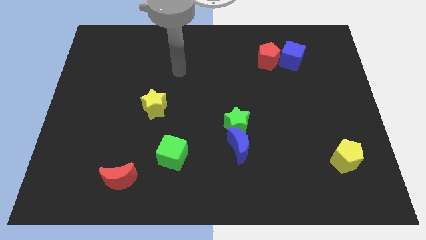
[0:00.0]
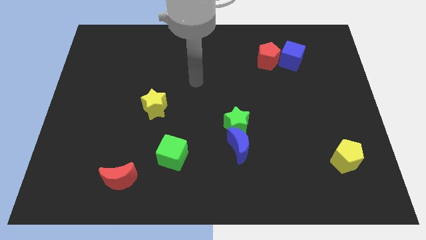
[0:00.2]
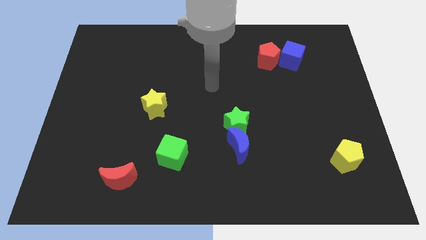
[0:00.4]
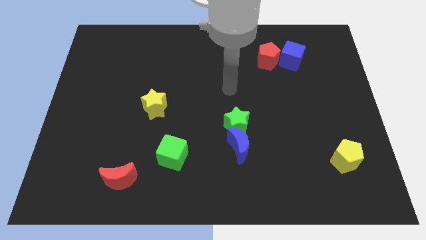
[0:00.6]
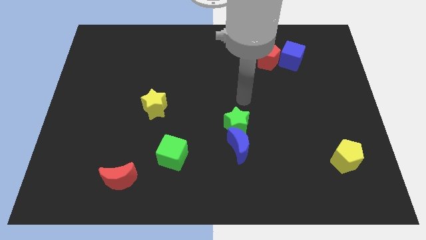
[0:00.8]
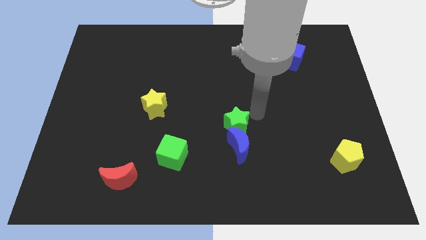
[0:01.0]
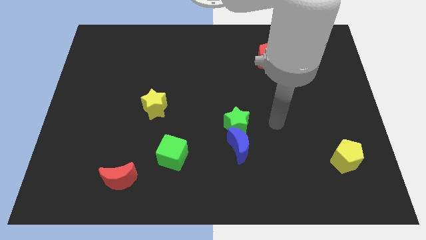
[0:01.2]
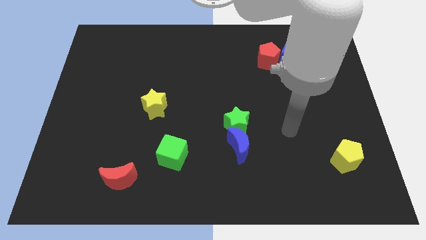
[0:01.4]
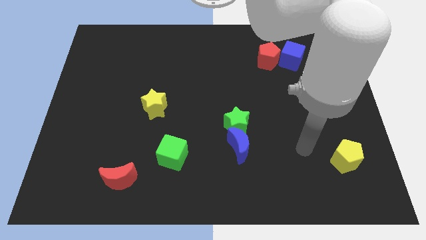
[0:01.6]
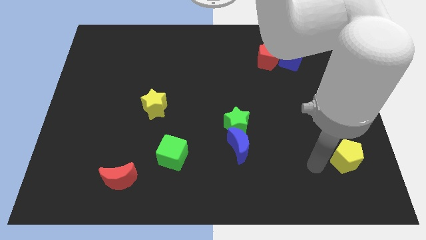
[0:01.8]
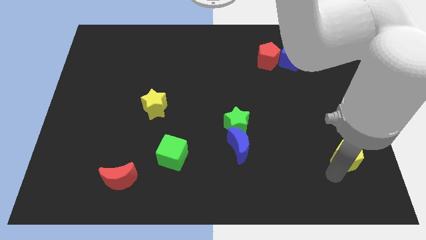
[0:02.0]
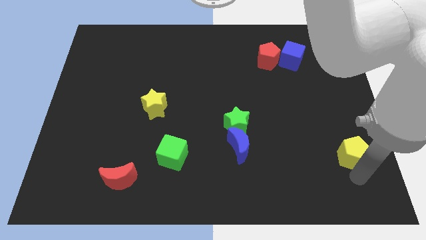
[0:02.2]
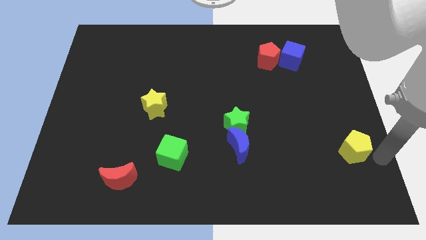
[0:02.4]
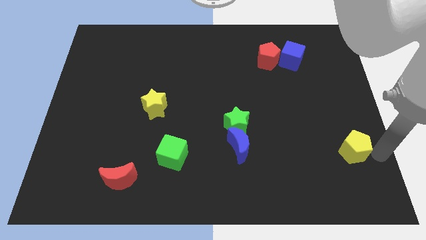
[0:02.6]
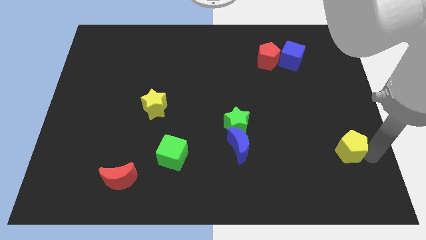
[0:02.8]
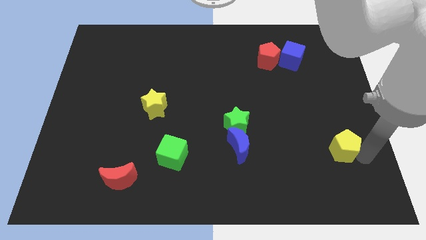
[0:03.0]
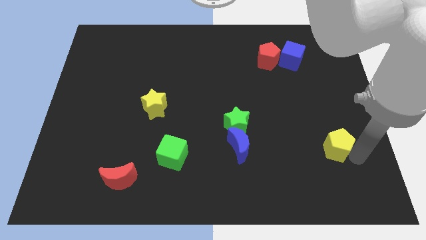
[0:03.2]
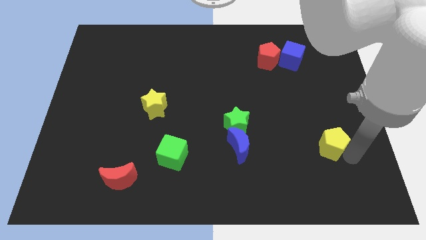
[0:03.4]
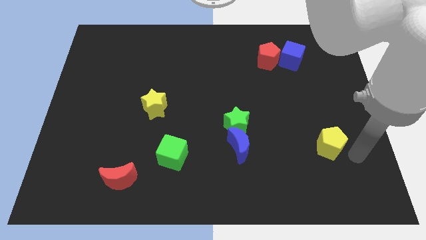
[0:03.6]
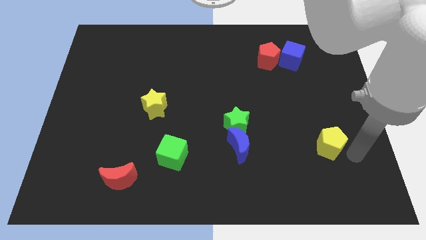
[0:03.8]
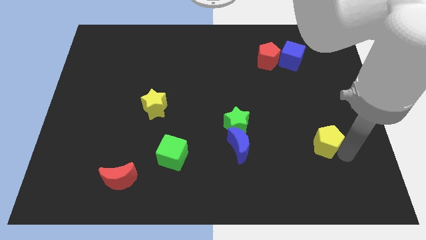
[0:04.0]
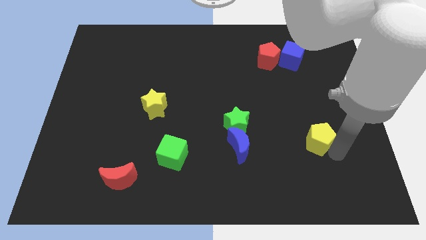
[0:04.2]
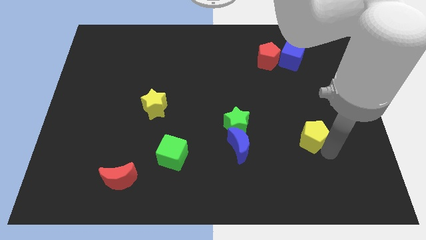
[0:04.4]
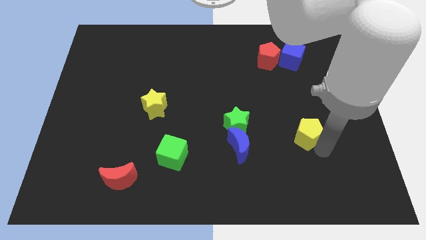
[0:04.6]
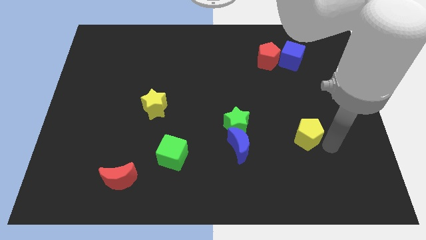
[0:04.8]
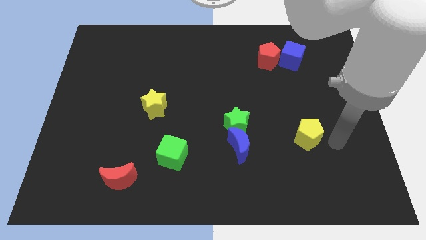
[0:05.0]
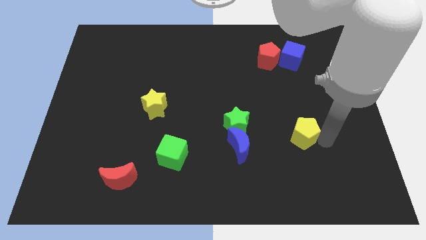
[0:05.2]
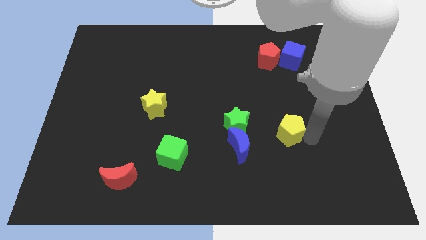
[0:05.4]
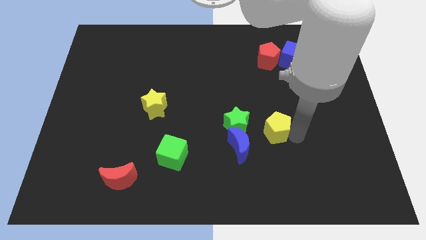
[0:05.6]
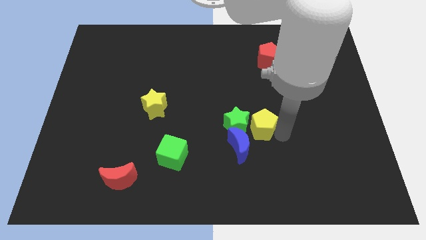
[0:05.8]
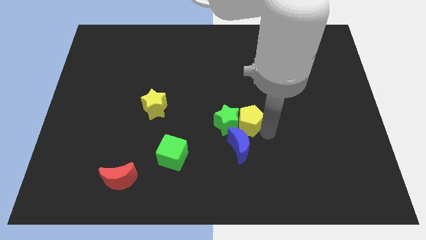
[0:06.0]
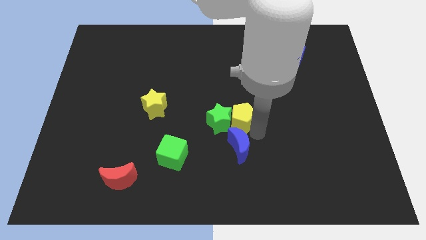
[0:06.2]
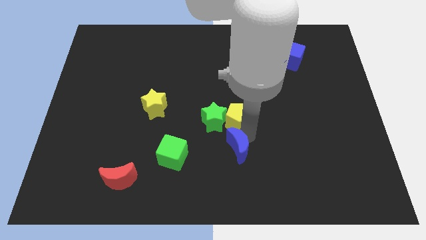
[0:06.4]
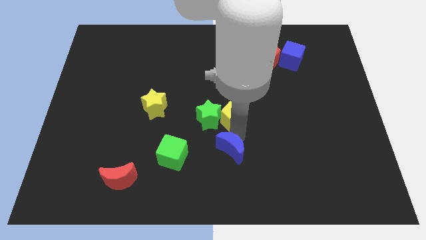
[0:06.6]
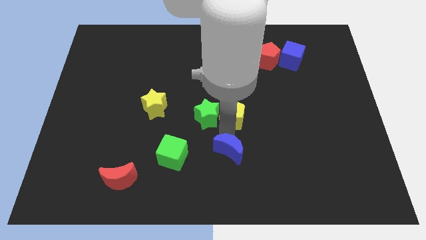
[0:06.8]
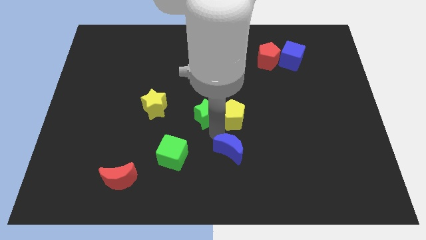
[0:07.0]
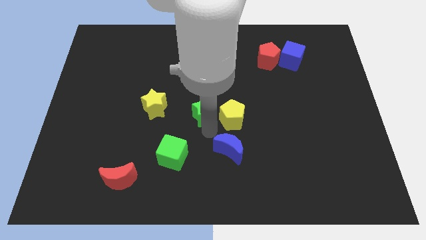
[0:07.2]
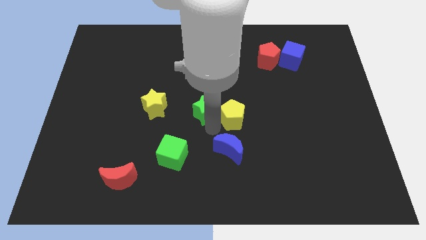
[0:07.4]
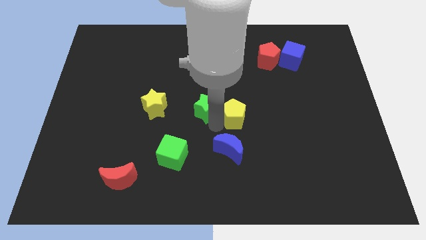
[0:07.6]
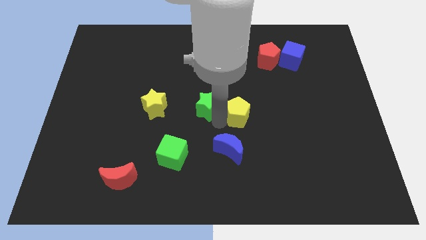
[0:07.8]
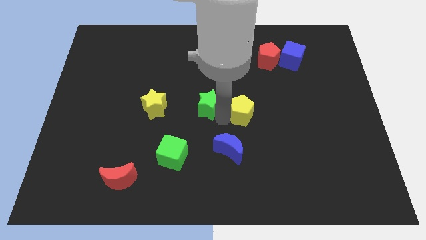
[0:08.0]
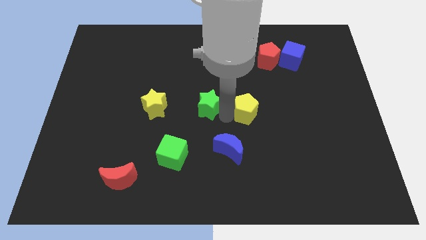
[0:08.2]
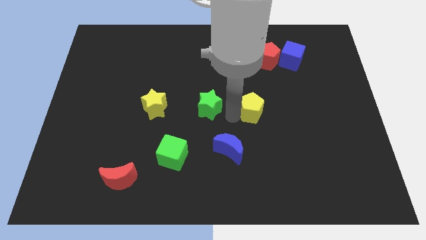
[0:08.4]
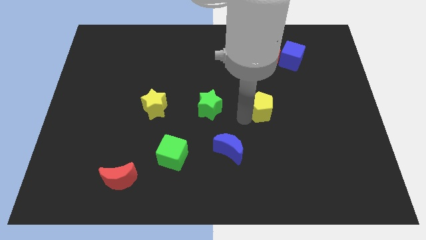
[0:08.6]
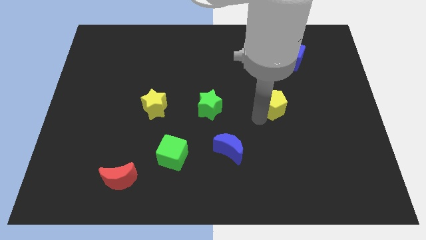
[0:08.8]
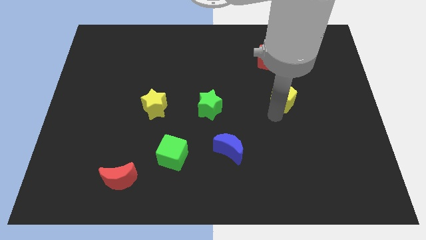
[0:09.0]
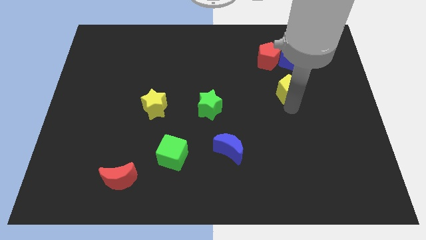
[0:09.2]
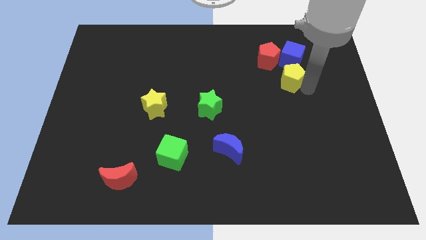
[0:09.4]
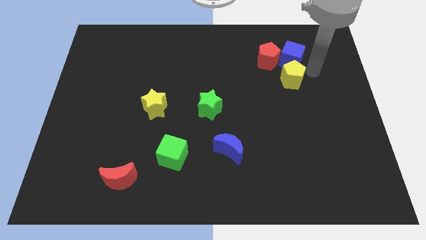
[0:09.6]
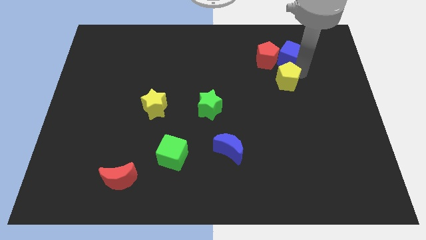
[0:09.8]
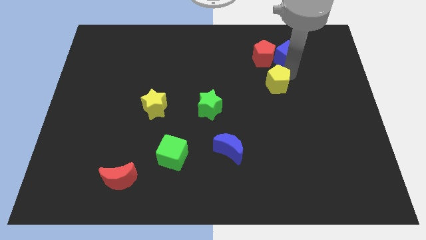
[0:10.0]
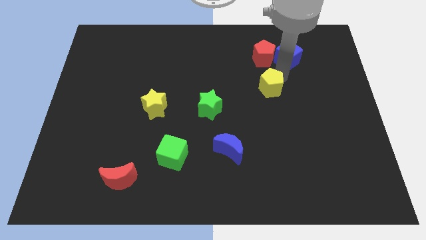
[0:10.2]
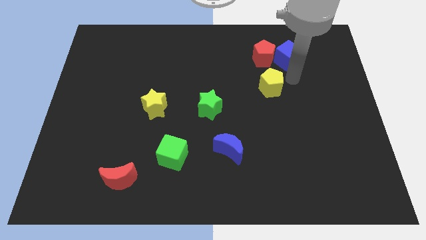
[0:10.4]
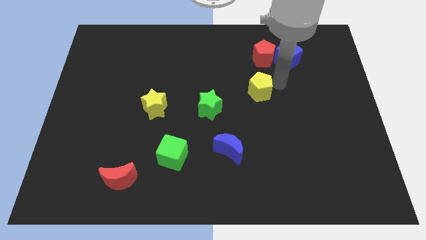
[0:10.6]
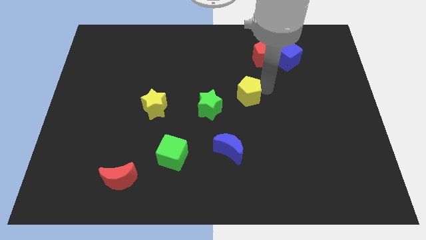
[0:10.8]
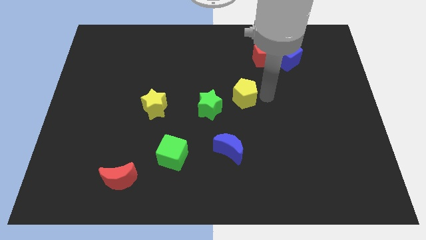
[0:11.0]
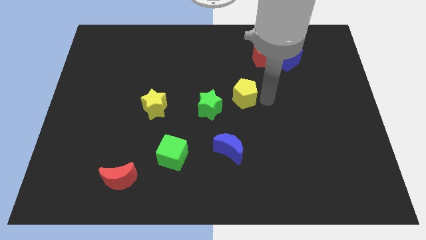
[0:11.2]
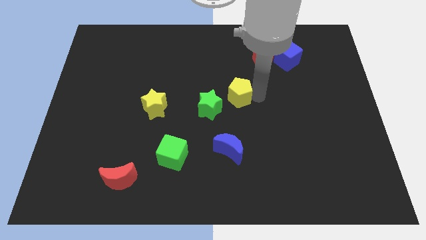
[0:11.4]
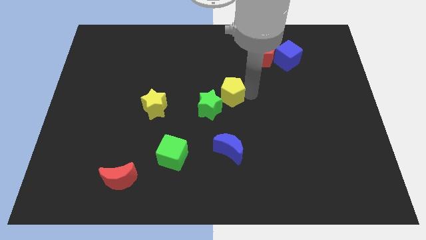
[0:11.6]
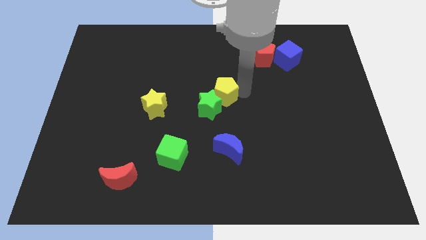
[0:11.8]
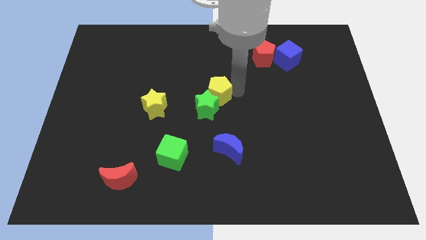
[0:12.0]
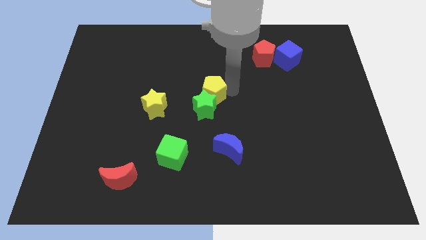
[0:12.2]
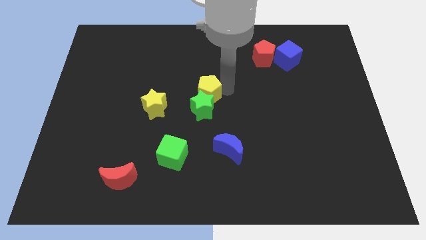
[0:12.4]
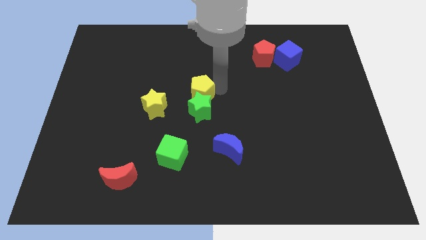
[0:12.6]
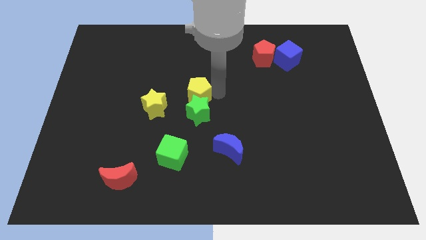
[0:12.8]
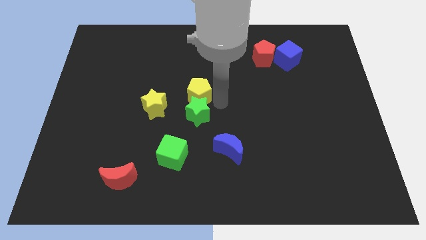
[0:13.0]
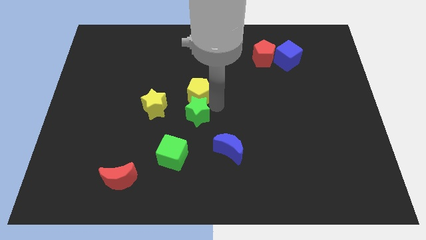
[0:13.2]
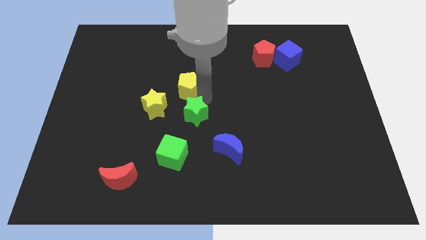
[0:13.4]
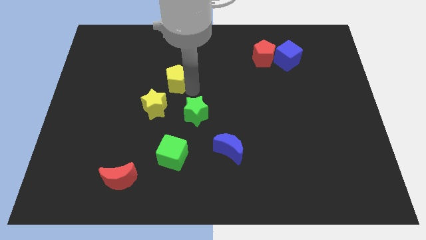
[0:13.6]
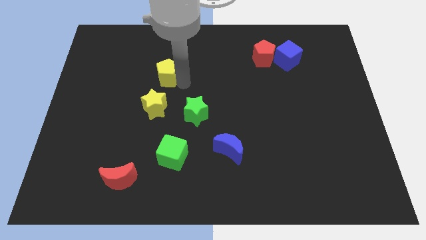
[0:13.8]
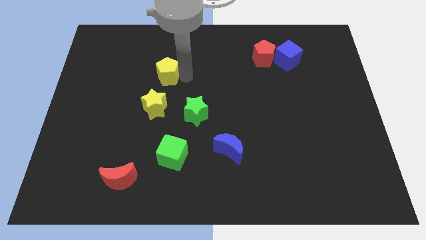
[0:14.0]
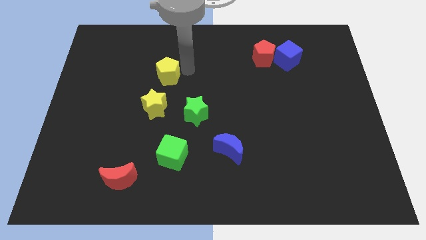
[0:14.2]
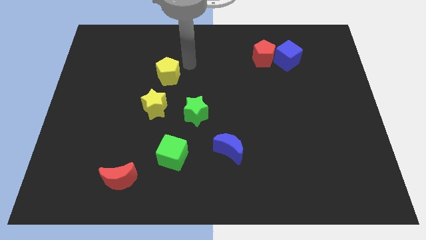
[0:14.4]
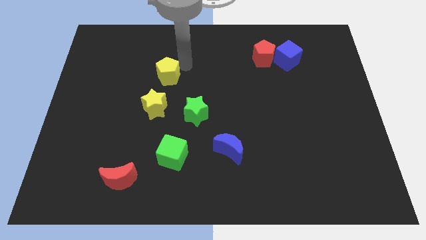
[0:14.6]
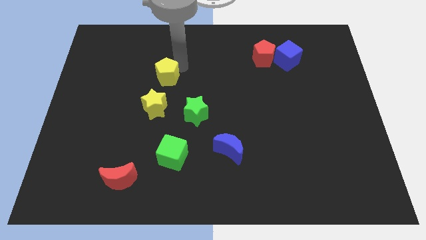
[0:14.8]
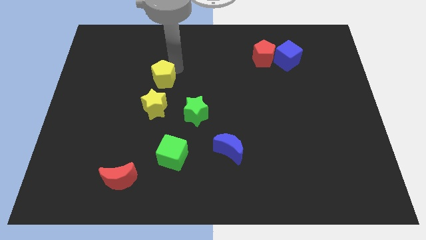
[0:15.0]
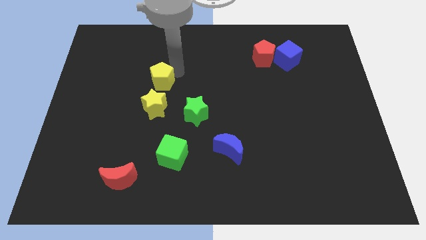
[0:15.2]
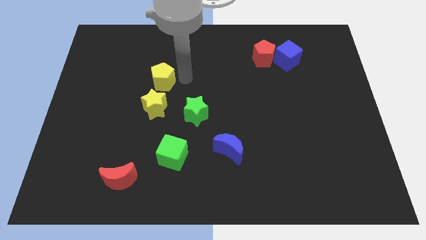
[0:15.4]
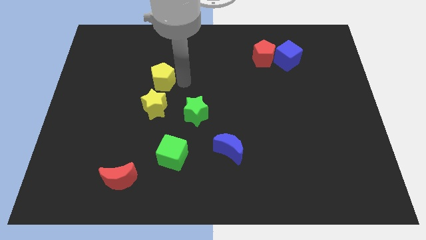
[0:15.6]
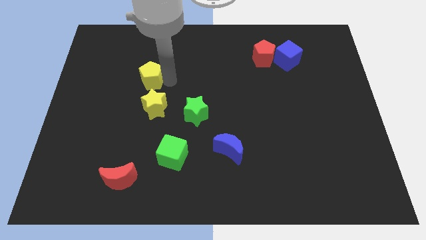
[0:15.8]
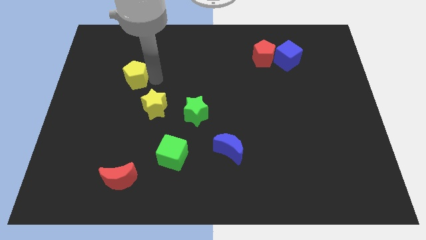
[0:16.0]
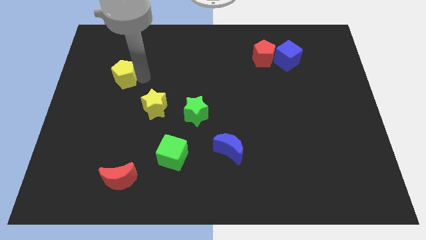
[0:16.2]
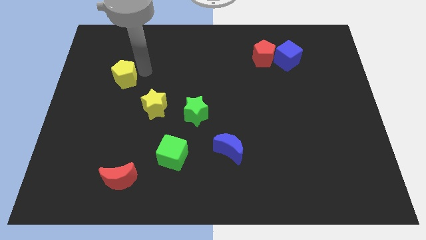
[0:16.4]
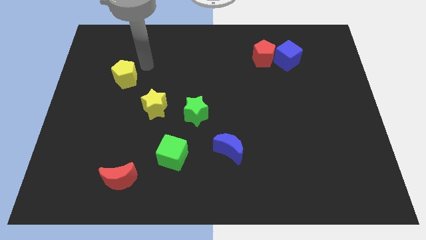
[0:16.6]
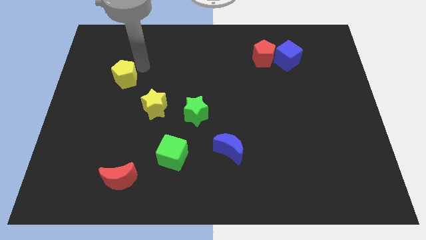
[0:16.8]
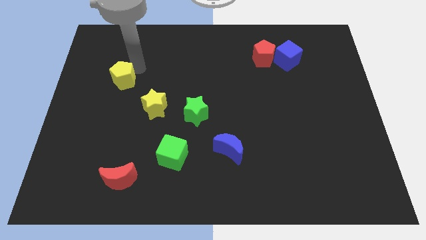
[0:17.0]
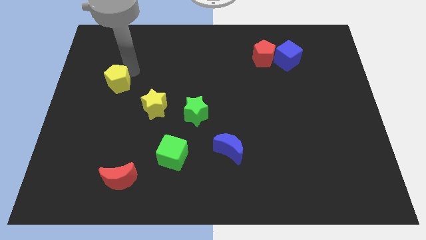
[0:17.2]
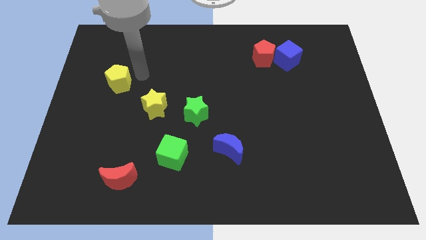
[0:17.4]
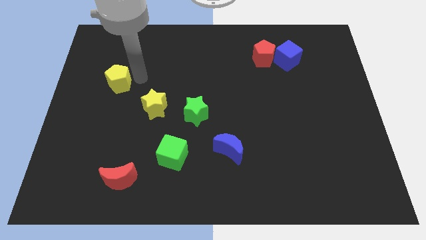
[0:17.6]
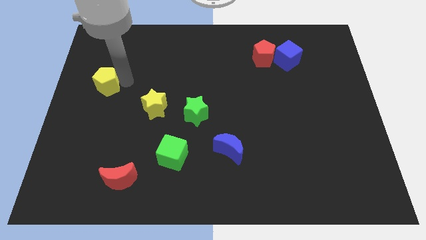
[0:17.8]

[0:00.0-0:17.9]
slide the yellow pentagon to the center left
